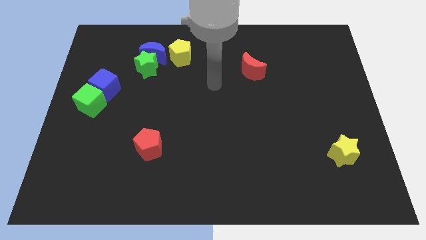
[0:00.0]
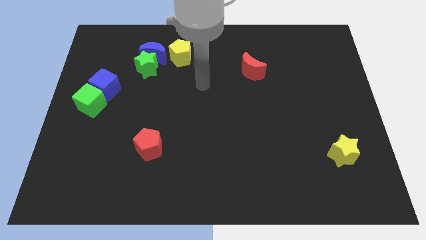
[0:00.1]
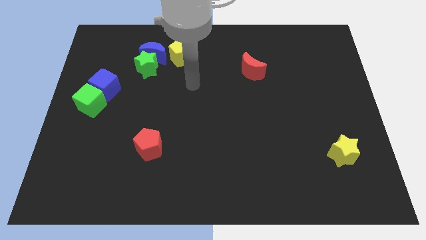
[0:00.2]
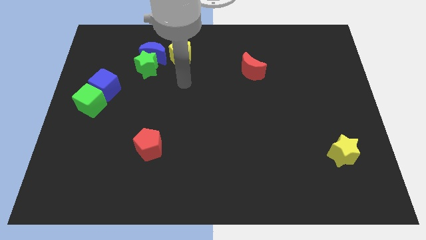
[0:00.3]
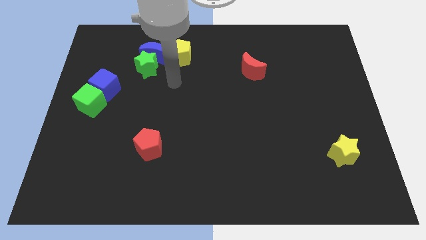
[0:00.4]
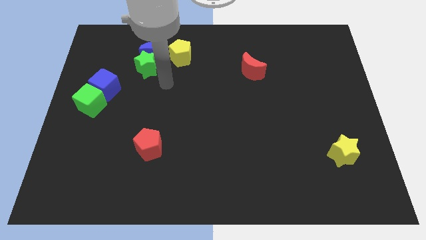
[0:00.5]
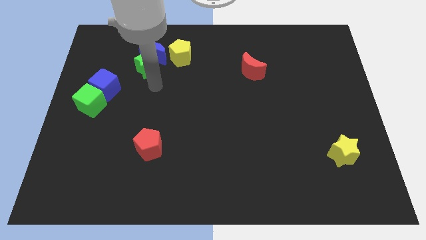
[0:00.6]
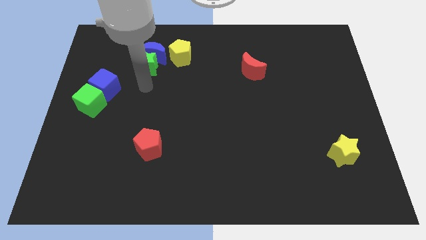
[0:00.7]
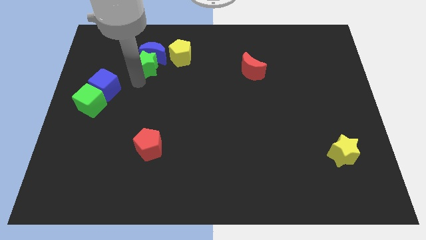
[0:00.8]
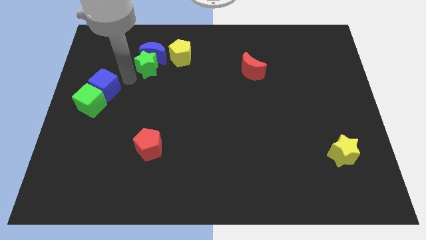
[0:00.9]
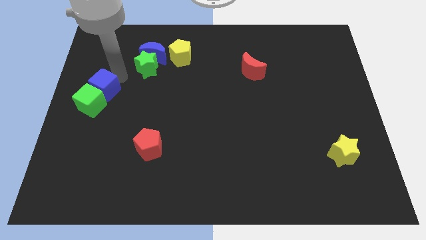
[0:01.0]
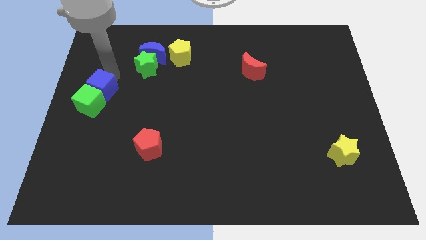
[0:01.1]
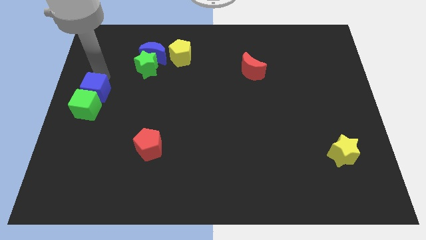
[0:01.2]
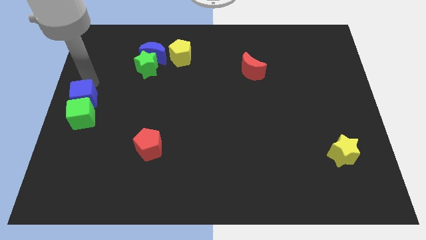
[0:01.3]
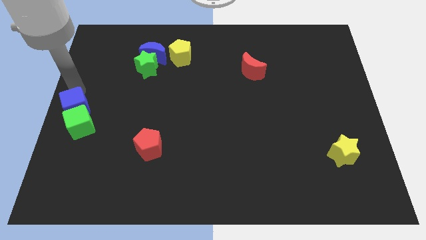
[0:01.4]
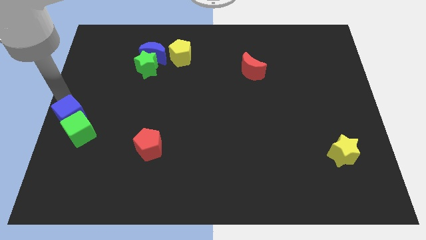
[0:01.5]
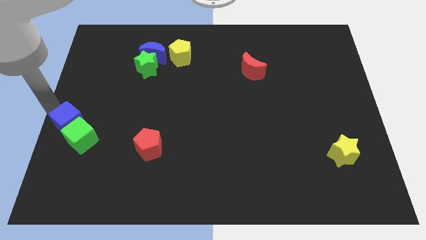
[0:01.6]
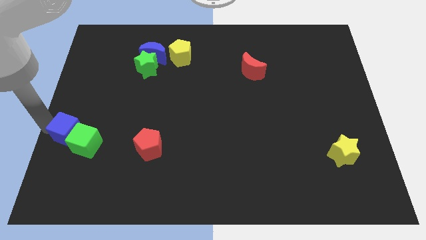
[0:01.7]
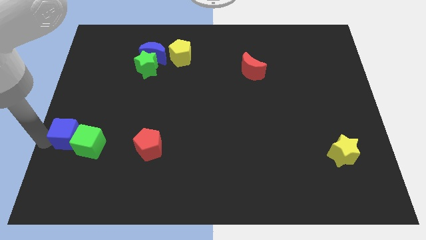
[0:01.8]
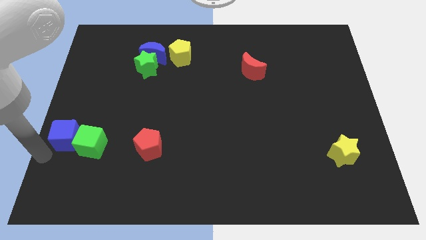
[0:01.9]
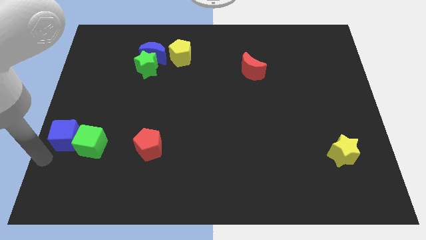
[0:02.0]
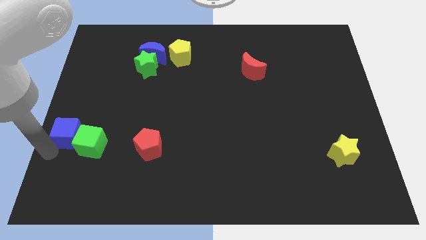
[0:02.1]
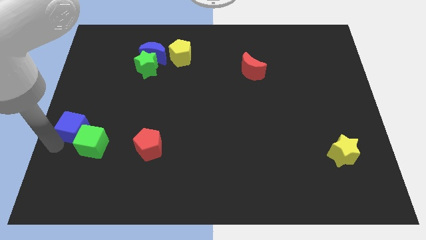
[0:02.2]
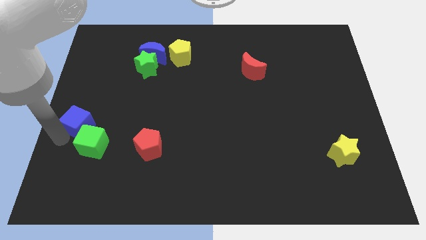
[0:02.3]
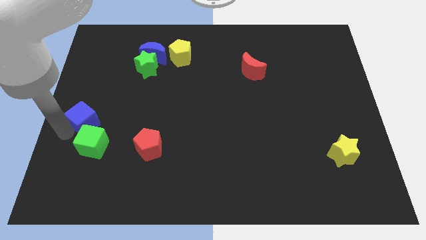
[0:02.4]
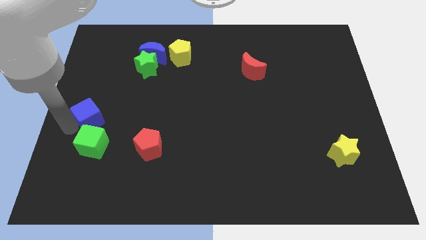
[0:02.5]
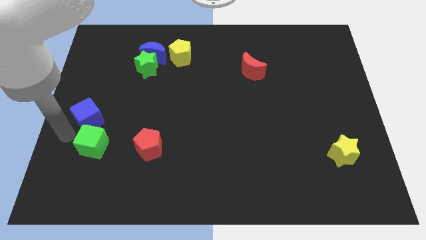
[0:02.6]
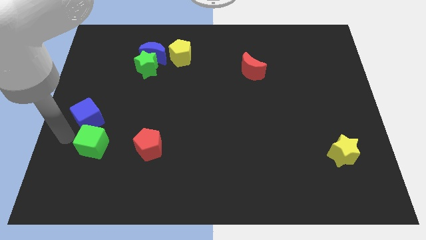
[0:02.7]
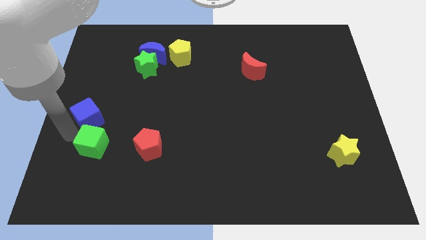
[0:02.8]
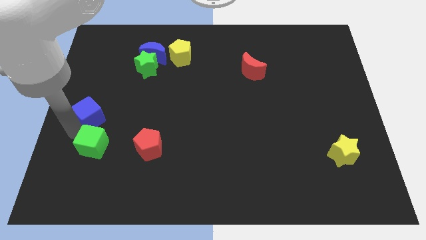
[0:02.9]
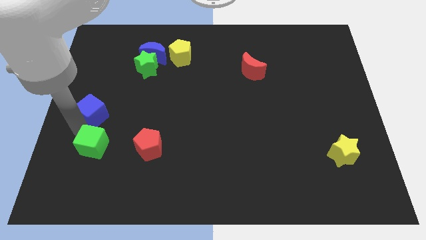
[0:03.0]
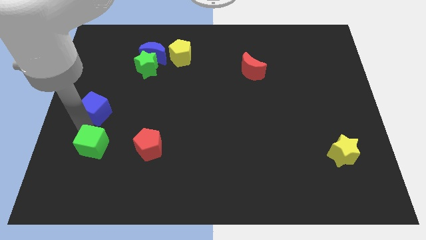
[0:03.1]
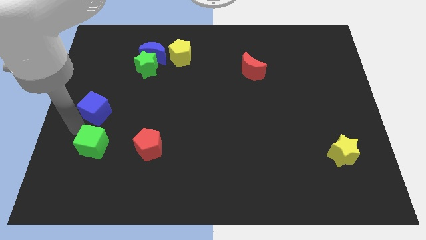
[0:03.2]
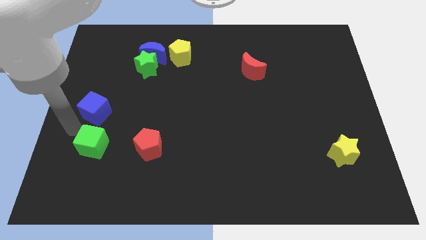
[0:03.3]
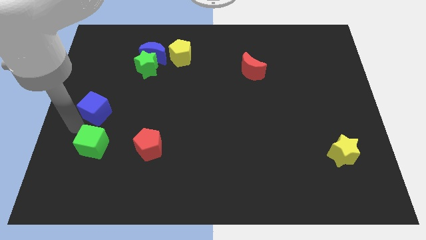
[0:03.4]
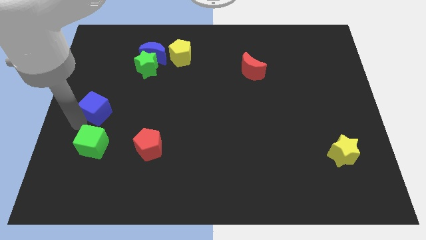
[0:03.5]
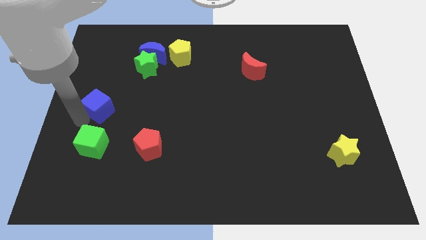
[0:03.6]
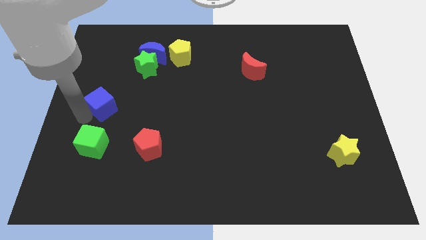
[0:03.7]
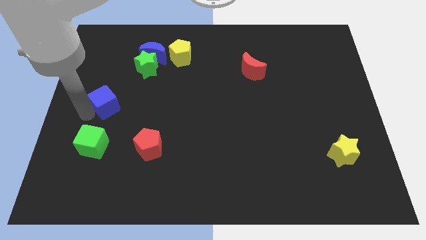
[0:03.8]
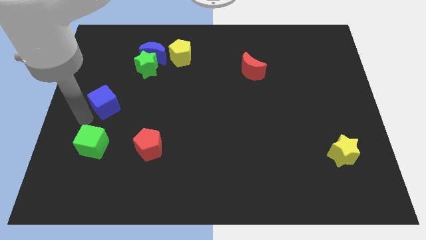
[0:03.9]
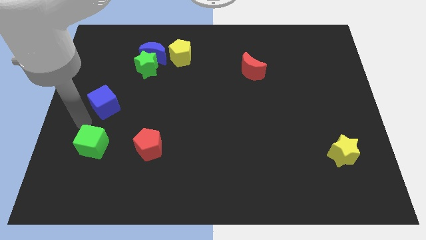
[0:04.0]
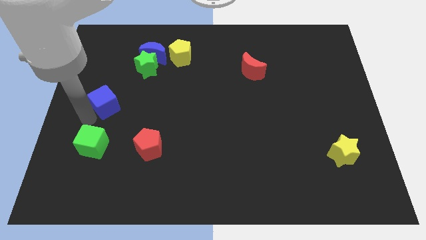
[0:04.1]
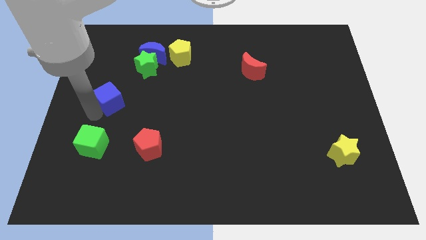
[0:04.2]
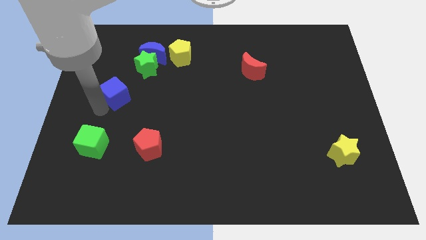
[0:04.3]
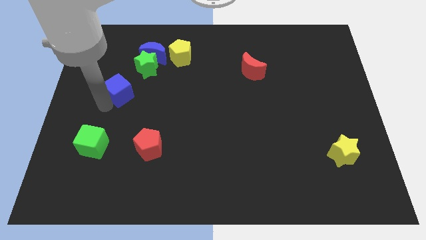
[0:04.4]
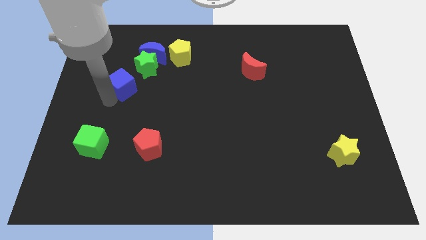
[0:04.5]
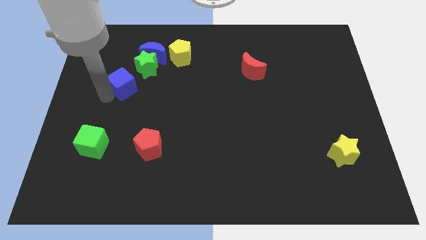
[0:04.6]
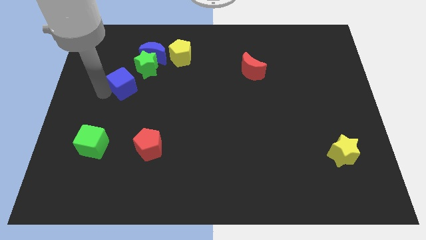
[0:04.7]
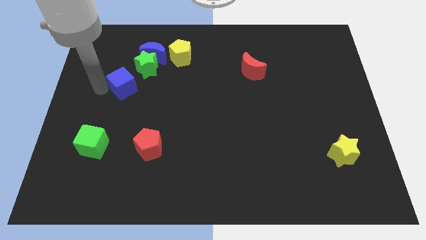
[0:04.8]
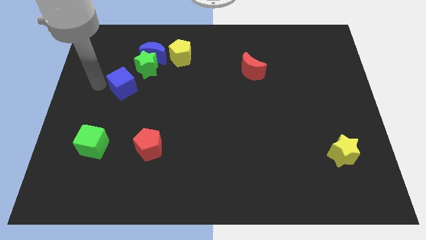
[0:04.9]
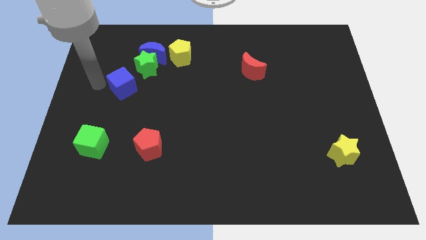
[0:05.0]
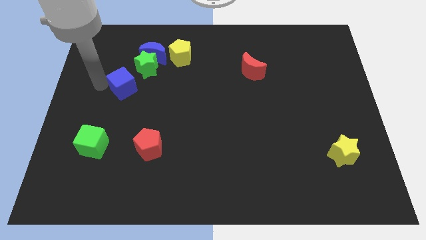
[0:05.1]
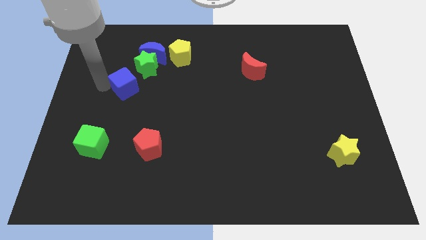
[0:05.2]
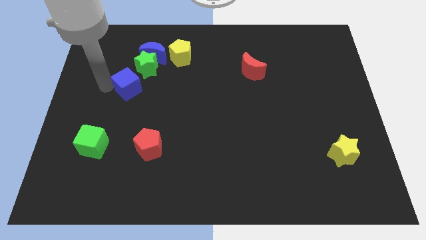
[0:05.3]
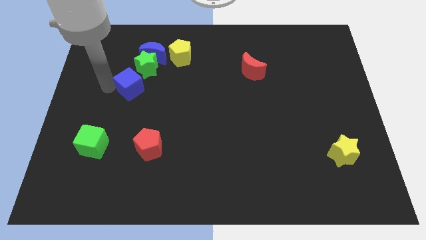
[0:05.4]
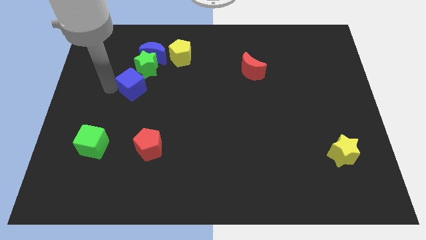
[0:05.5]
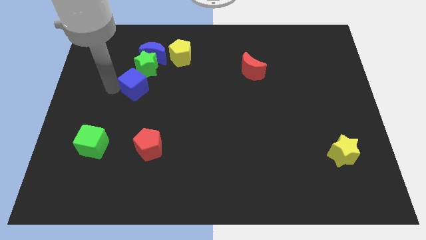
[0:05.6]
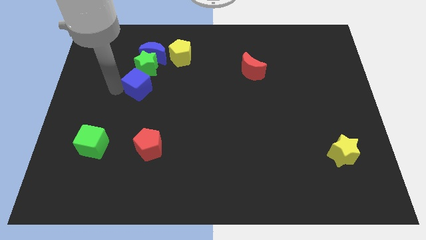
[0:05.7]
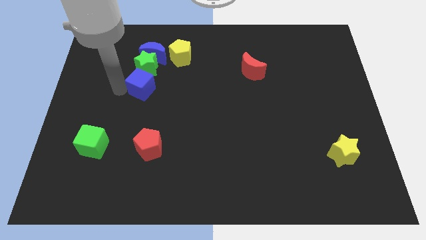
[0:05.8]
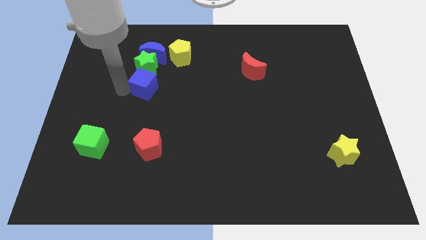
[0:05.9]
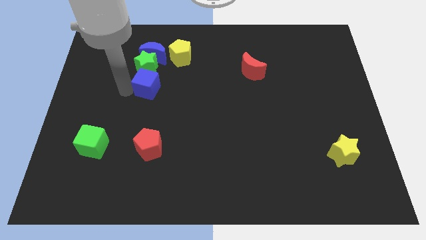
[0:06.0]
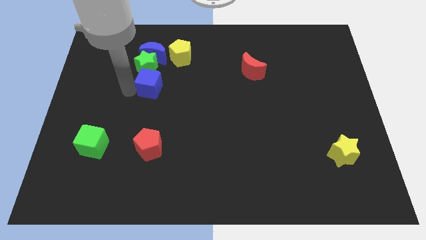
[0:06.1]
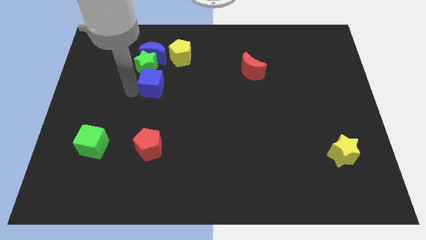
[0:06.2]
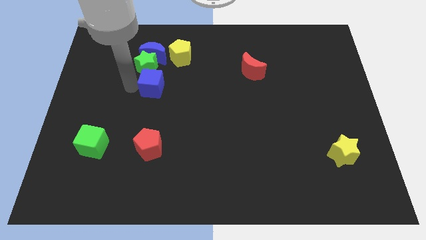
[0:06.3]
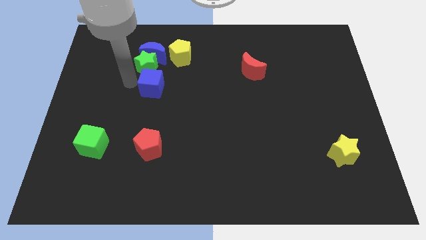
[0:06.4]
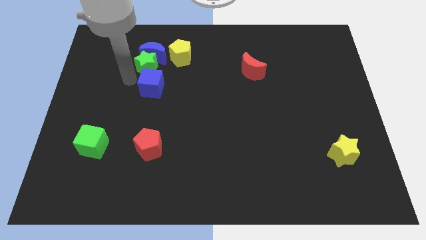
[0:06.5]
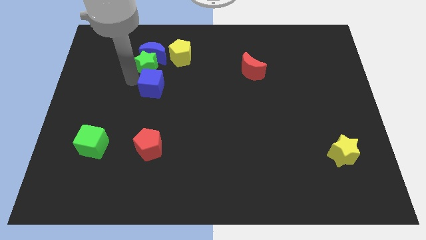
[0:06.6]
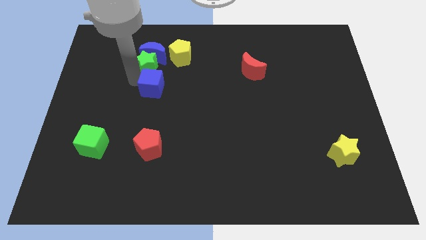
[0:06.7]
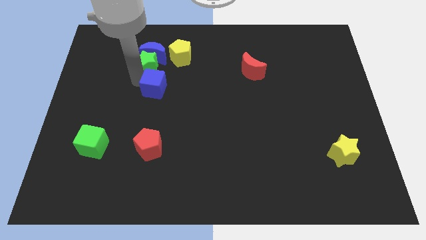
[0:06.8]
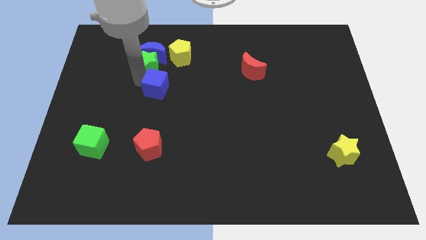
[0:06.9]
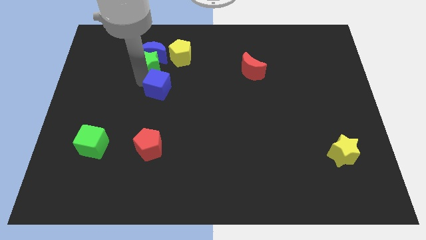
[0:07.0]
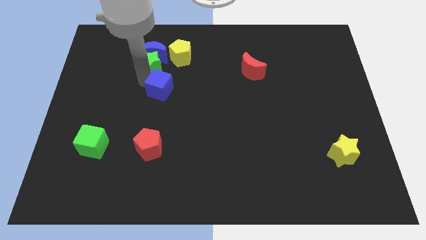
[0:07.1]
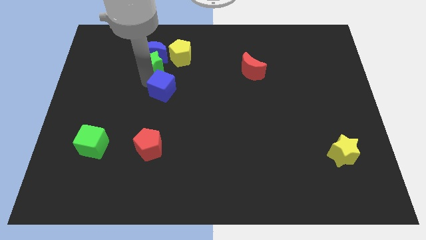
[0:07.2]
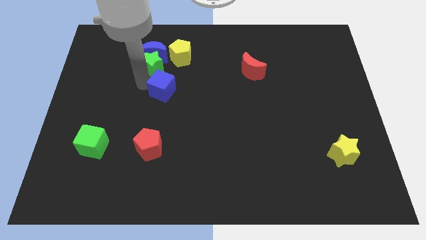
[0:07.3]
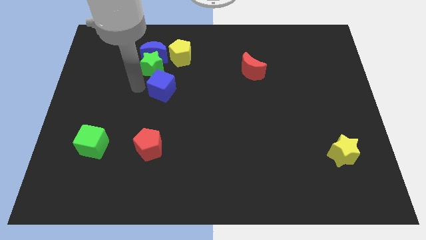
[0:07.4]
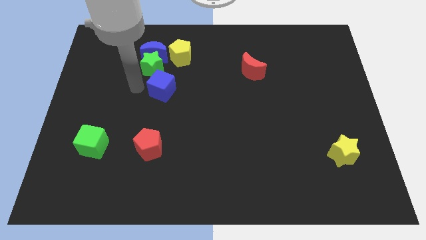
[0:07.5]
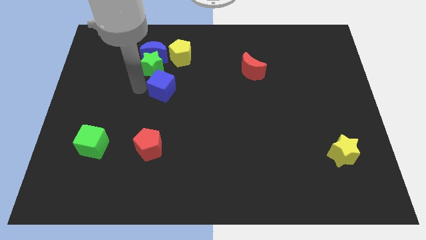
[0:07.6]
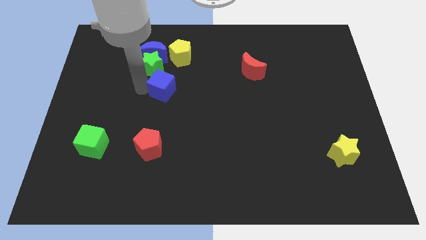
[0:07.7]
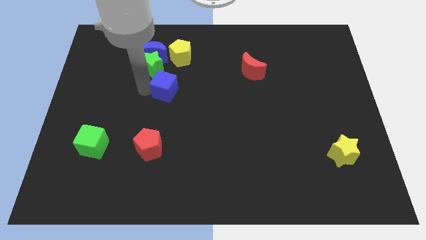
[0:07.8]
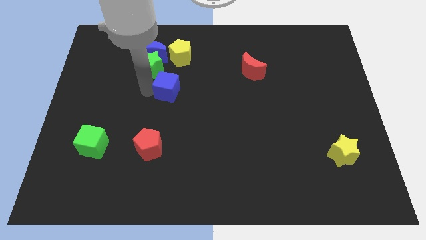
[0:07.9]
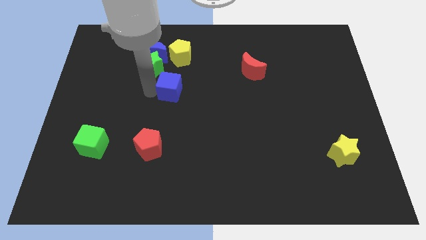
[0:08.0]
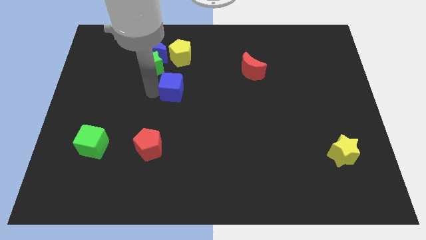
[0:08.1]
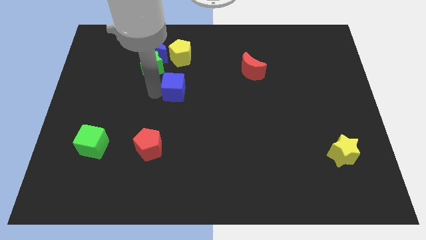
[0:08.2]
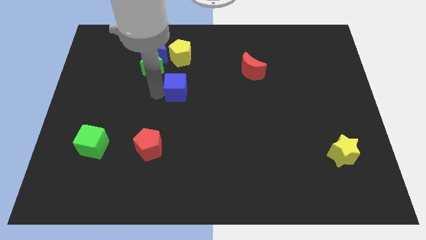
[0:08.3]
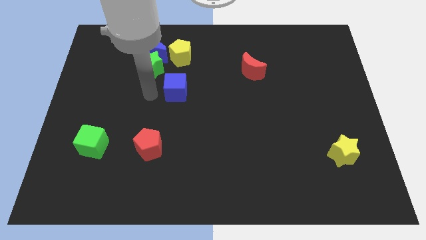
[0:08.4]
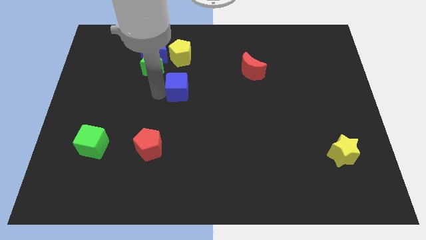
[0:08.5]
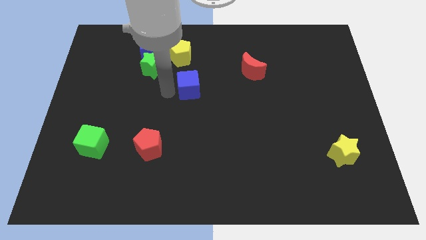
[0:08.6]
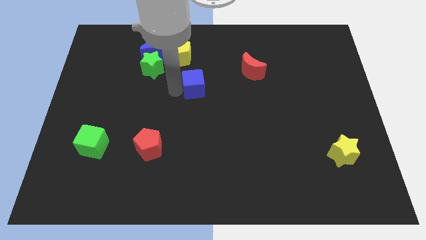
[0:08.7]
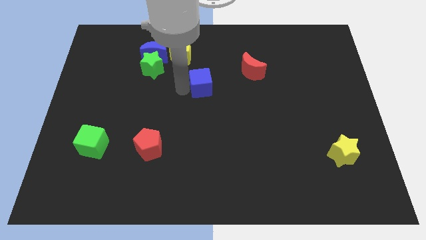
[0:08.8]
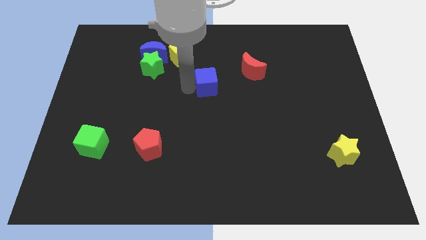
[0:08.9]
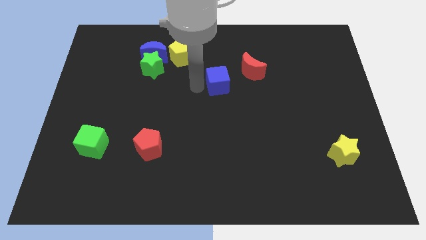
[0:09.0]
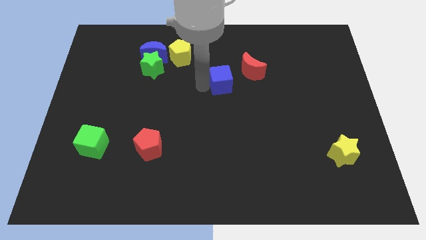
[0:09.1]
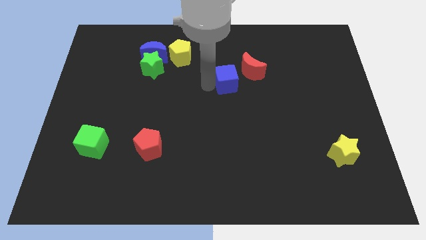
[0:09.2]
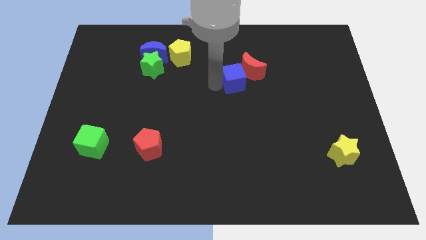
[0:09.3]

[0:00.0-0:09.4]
slide the blue cube to the red moon
